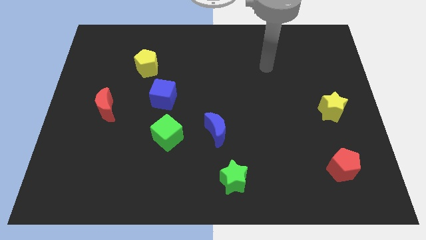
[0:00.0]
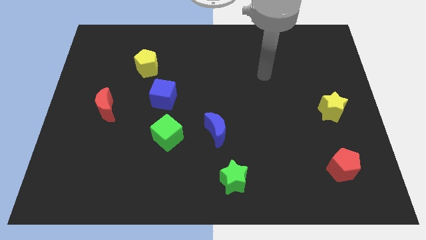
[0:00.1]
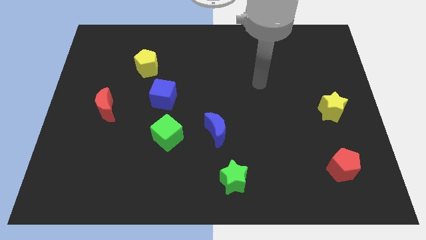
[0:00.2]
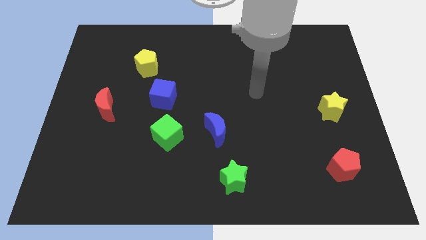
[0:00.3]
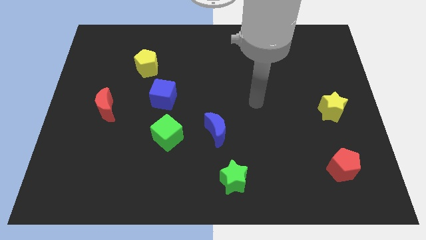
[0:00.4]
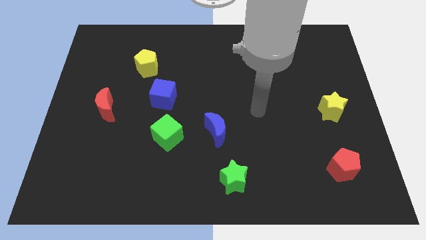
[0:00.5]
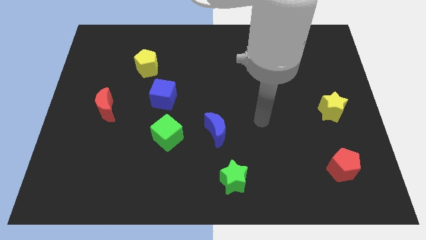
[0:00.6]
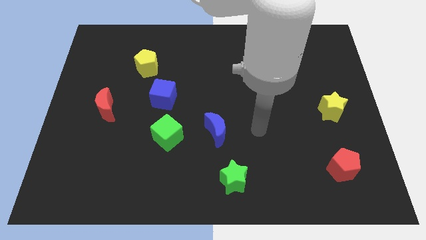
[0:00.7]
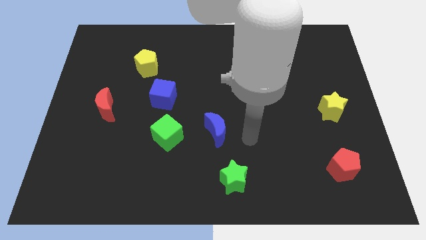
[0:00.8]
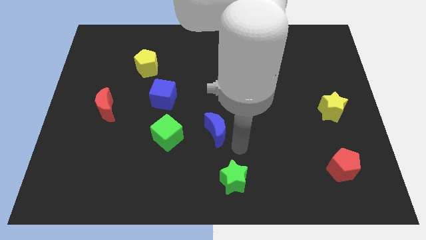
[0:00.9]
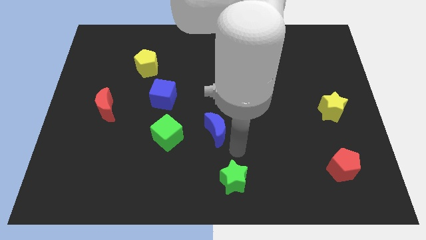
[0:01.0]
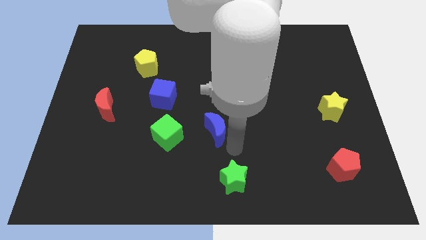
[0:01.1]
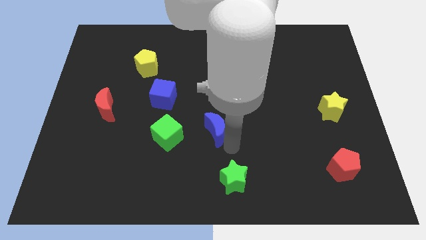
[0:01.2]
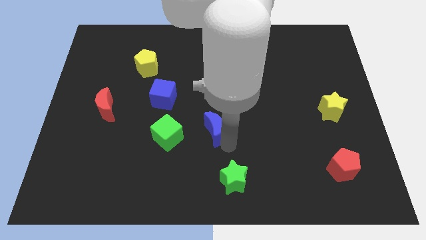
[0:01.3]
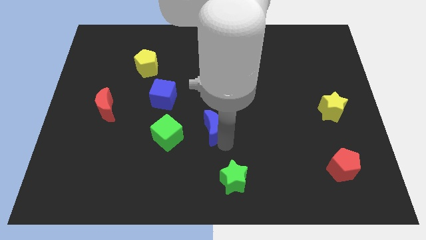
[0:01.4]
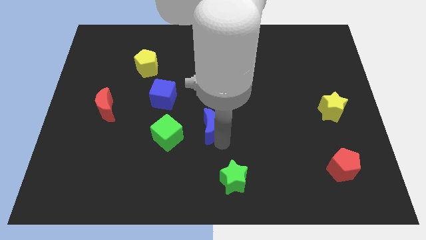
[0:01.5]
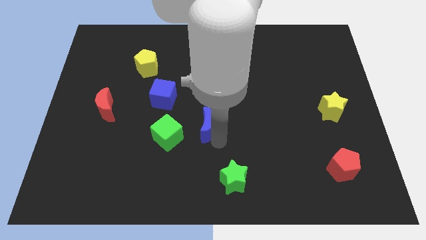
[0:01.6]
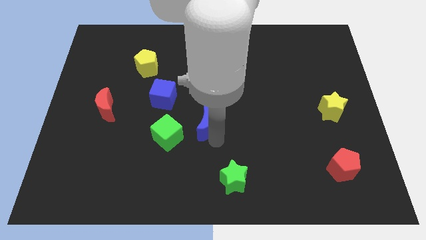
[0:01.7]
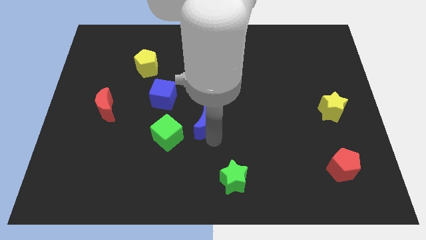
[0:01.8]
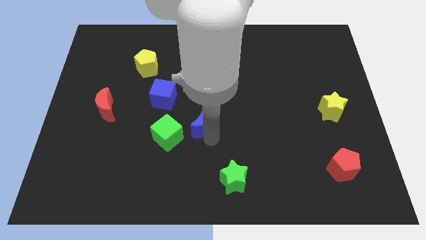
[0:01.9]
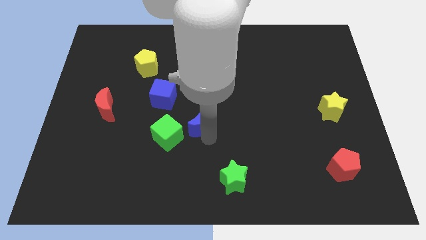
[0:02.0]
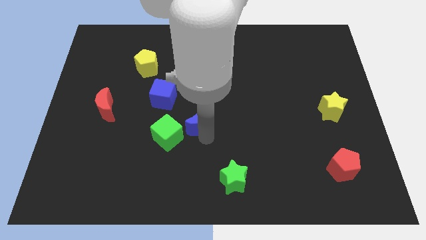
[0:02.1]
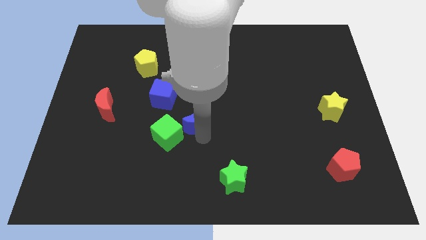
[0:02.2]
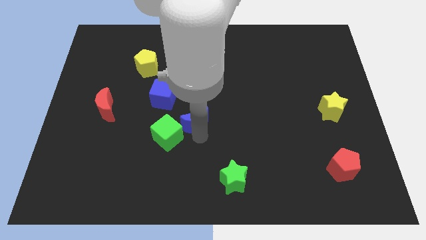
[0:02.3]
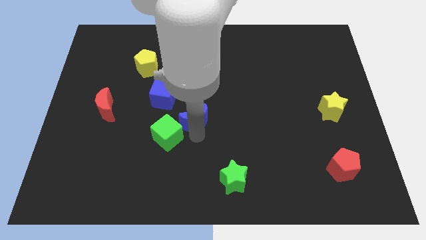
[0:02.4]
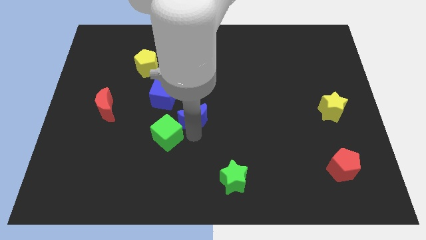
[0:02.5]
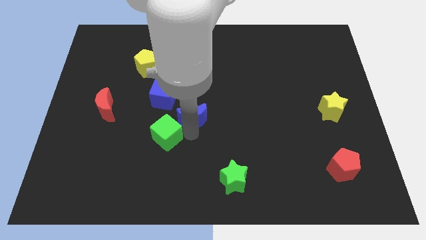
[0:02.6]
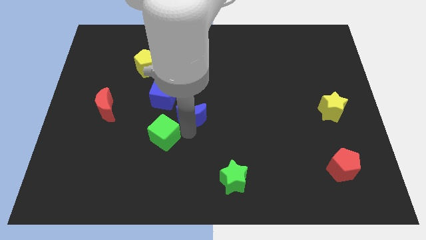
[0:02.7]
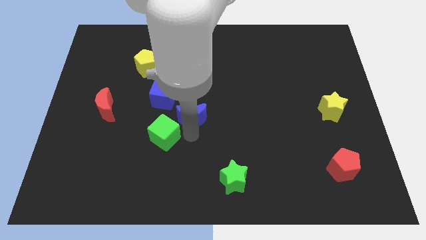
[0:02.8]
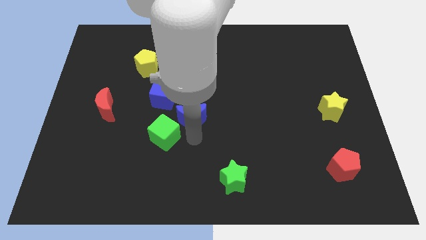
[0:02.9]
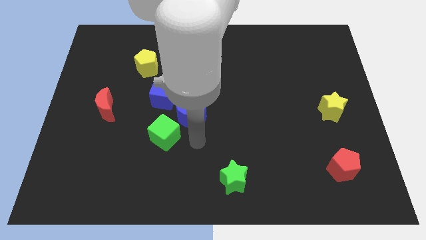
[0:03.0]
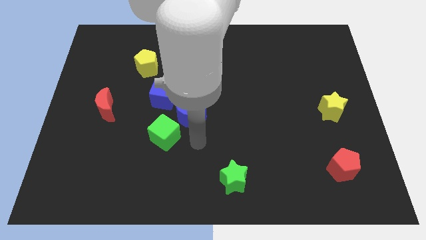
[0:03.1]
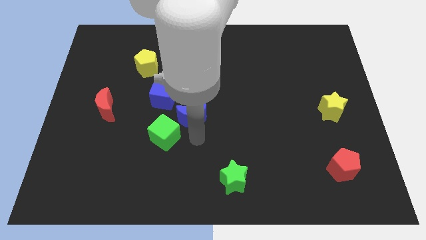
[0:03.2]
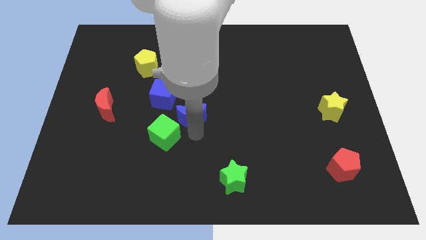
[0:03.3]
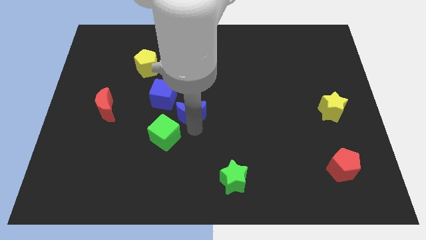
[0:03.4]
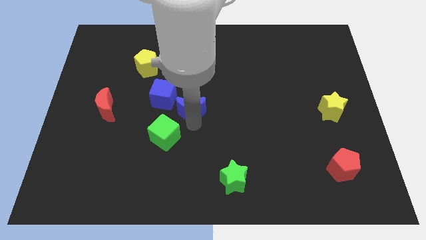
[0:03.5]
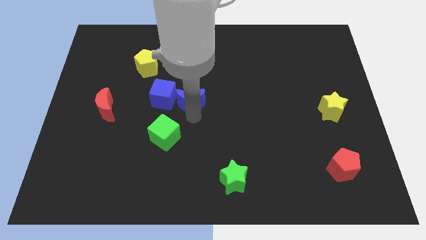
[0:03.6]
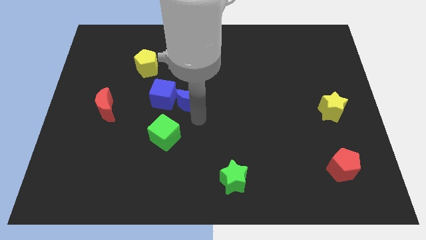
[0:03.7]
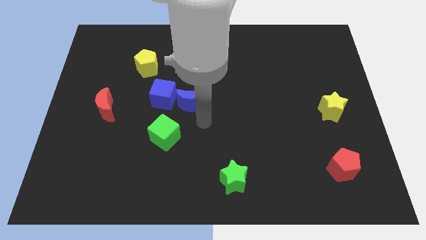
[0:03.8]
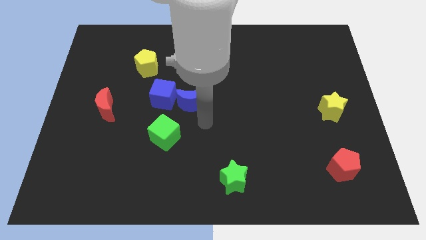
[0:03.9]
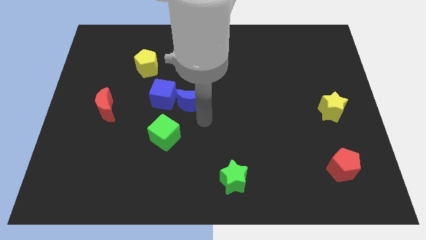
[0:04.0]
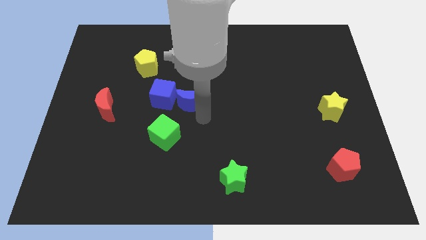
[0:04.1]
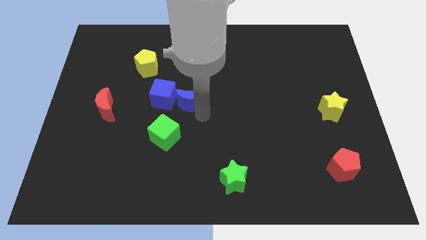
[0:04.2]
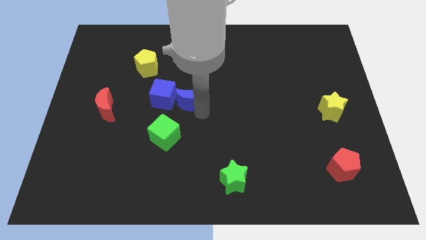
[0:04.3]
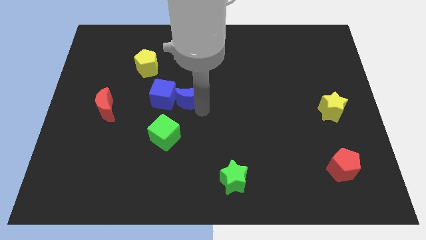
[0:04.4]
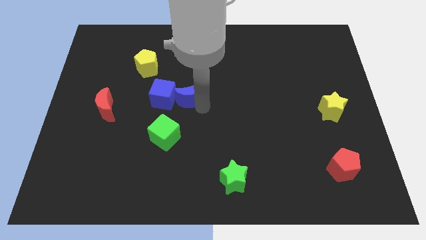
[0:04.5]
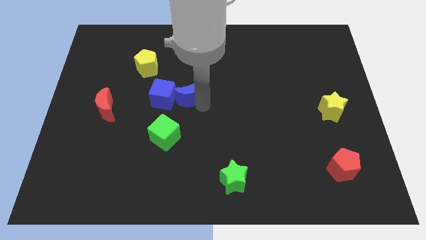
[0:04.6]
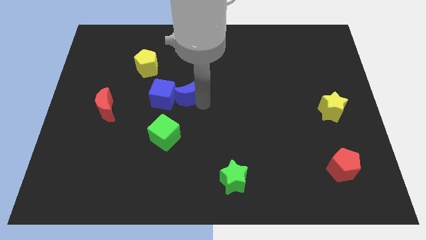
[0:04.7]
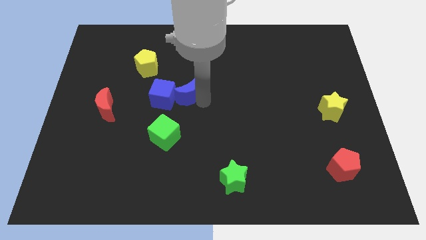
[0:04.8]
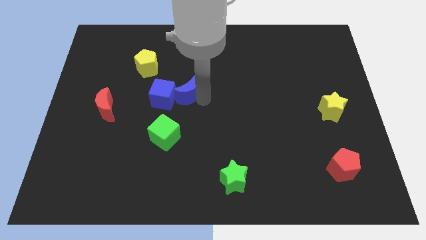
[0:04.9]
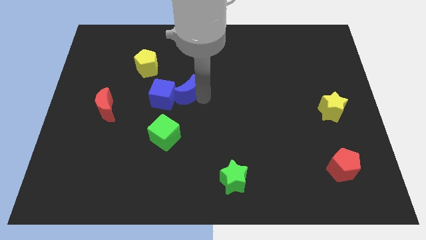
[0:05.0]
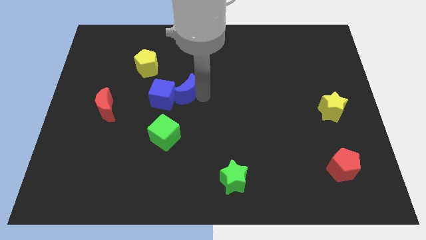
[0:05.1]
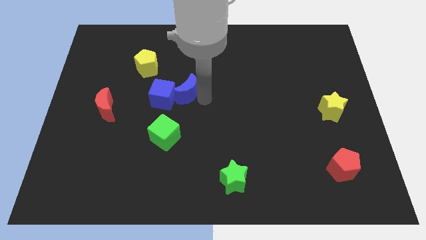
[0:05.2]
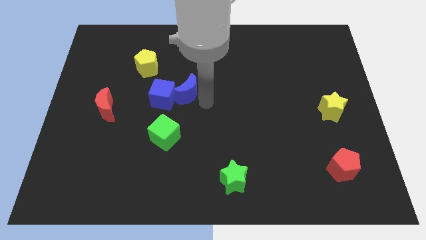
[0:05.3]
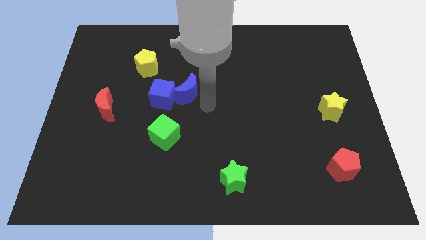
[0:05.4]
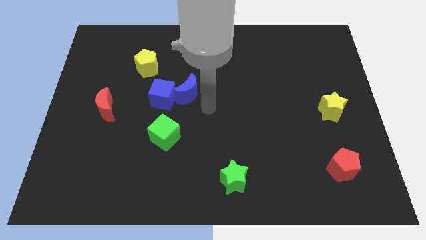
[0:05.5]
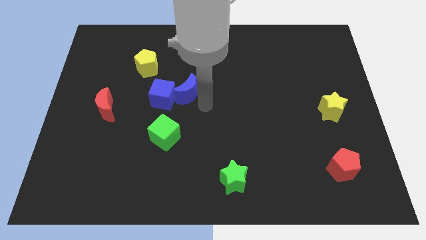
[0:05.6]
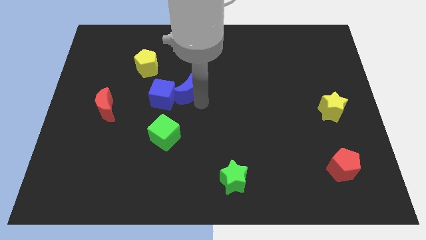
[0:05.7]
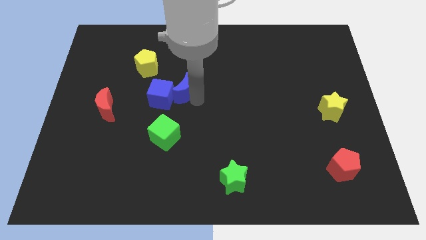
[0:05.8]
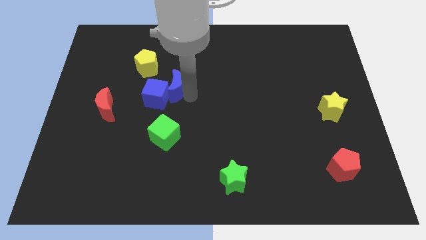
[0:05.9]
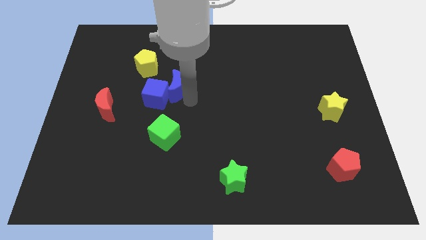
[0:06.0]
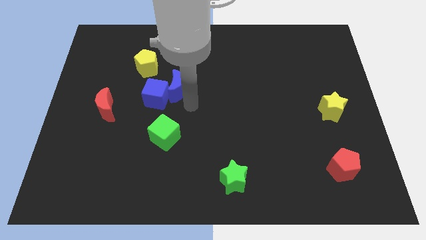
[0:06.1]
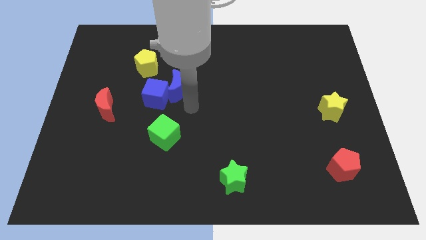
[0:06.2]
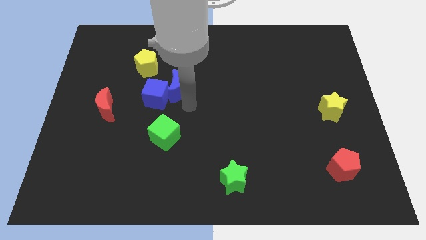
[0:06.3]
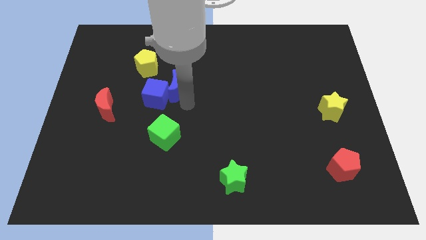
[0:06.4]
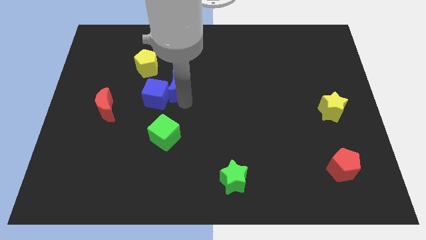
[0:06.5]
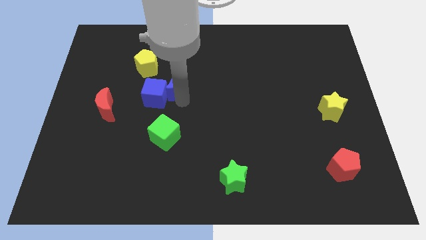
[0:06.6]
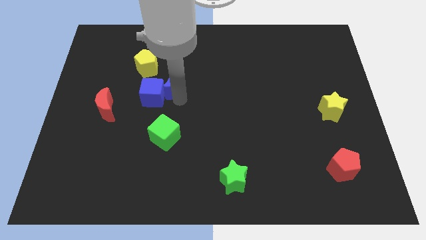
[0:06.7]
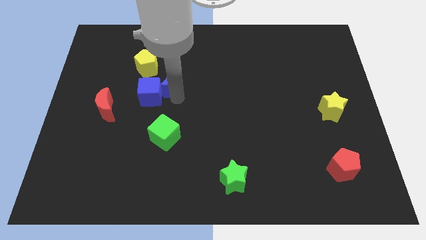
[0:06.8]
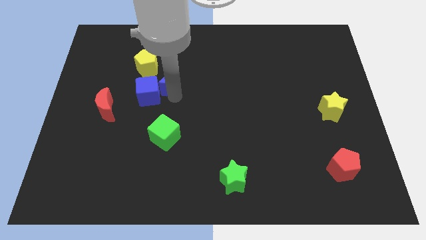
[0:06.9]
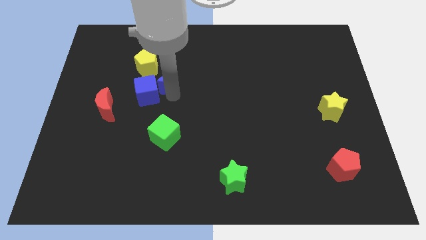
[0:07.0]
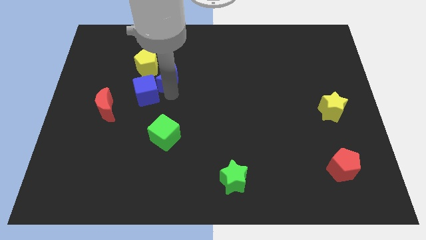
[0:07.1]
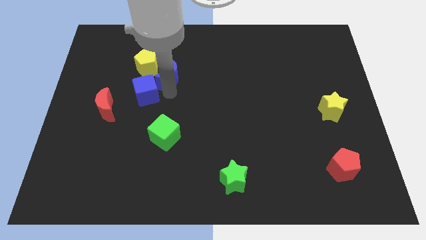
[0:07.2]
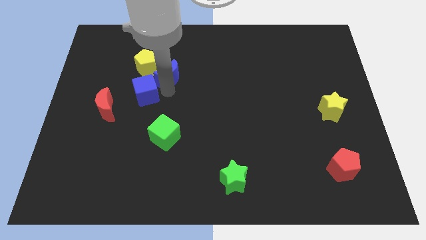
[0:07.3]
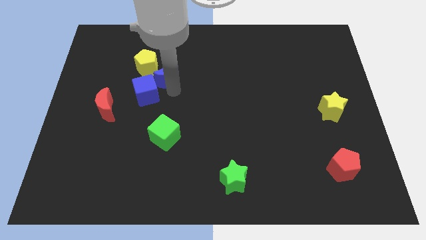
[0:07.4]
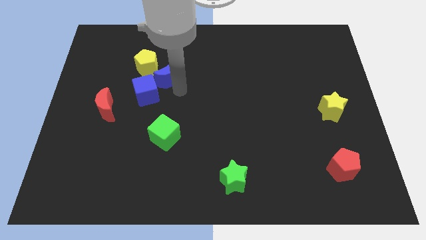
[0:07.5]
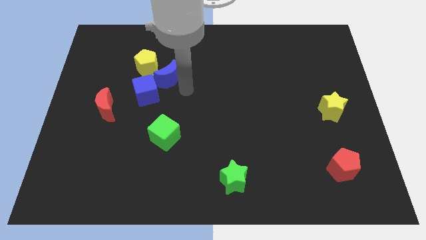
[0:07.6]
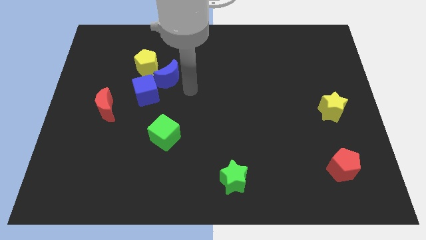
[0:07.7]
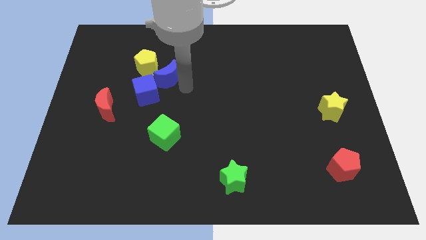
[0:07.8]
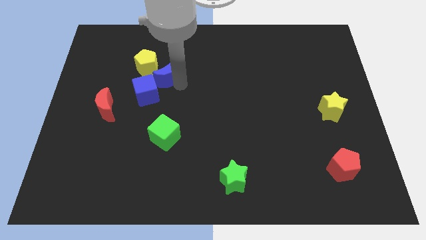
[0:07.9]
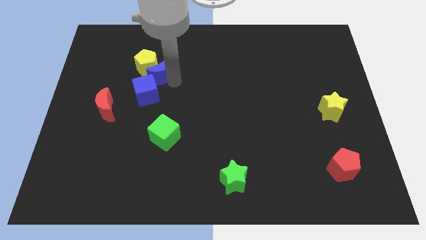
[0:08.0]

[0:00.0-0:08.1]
put the blue moon next to the yellow pentagon
